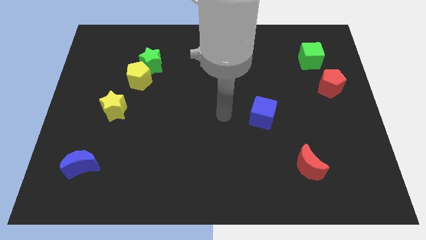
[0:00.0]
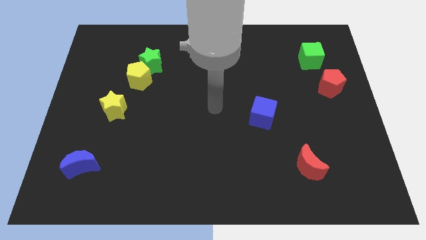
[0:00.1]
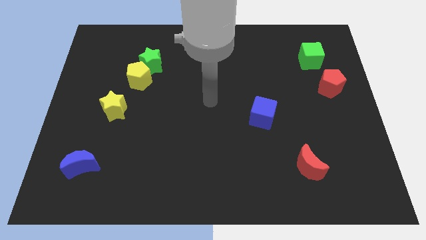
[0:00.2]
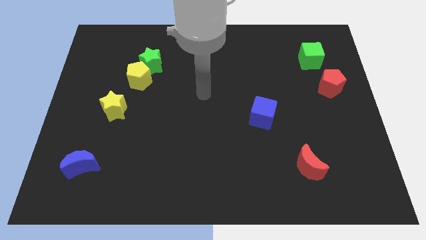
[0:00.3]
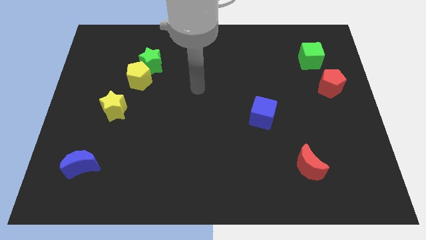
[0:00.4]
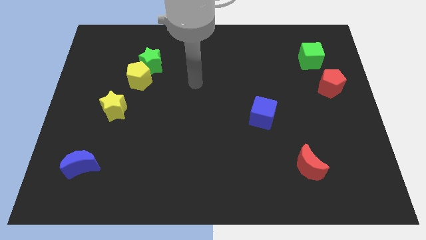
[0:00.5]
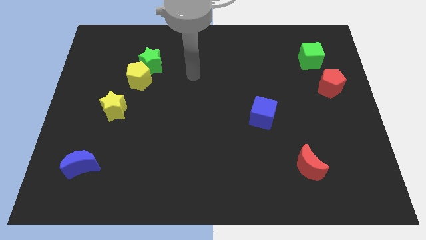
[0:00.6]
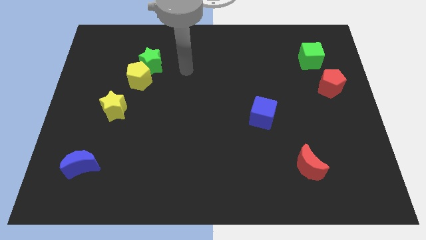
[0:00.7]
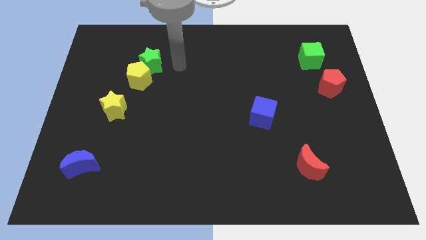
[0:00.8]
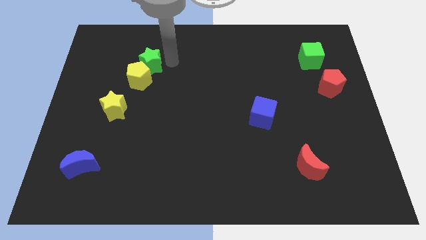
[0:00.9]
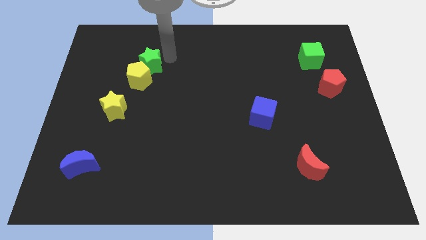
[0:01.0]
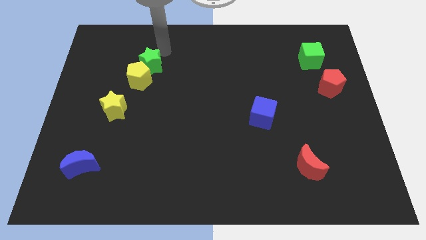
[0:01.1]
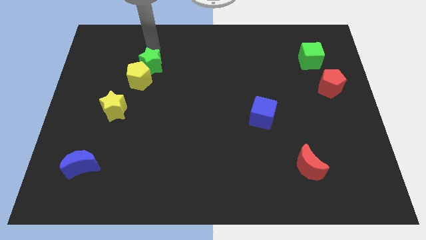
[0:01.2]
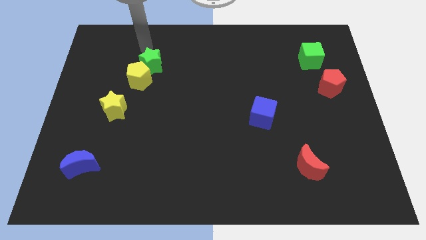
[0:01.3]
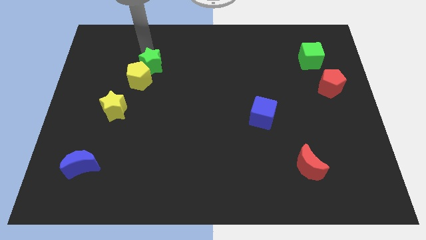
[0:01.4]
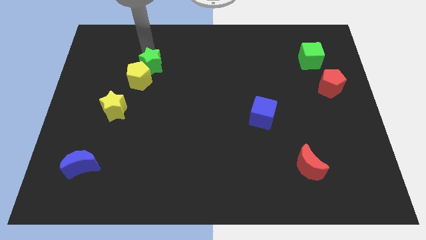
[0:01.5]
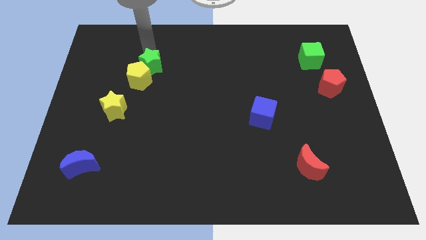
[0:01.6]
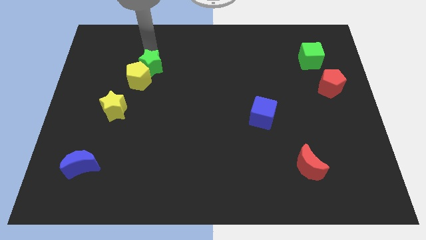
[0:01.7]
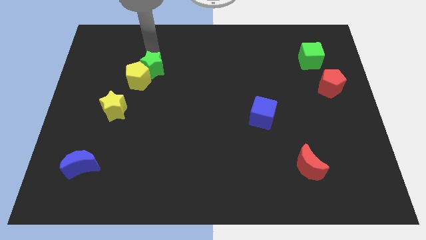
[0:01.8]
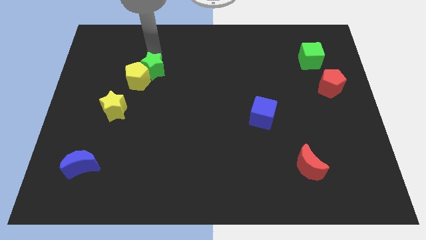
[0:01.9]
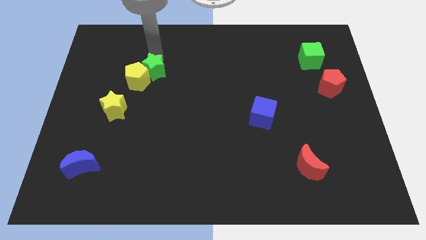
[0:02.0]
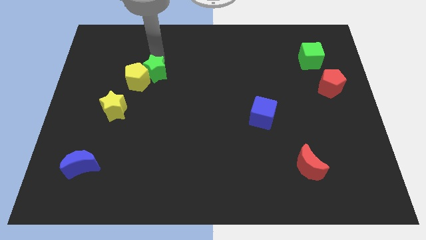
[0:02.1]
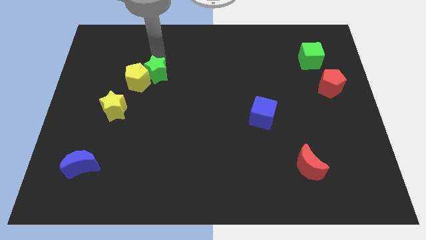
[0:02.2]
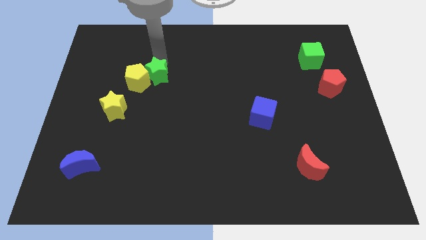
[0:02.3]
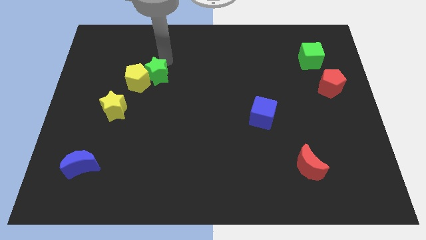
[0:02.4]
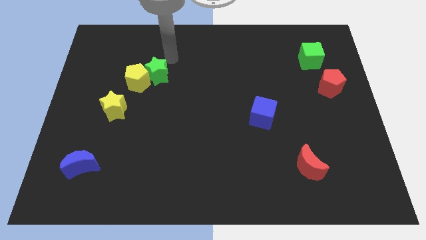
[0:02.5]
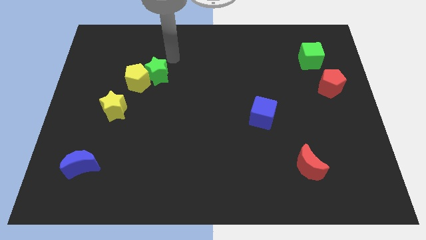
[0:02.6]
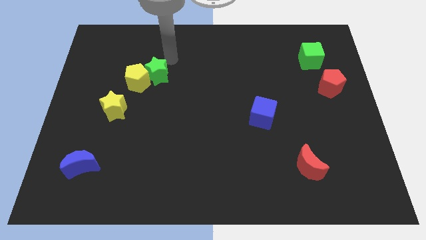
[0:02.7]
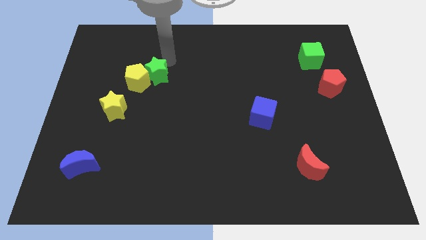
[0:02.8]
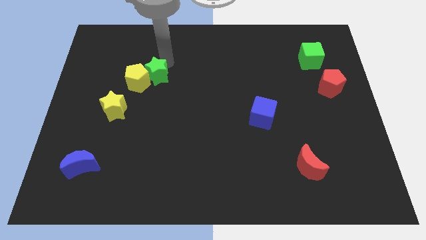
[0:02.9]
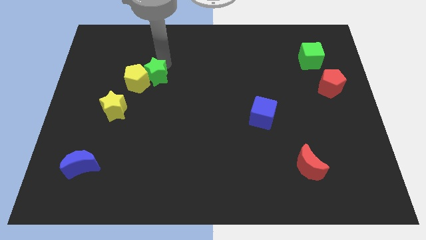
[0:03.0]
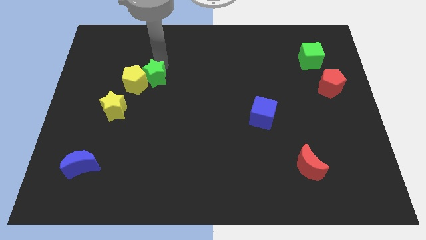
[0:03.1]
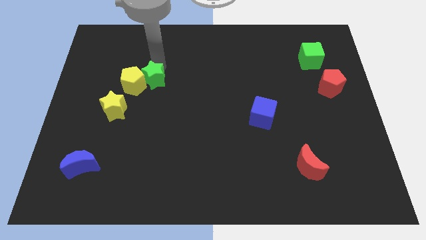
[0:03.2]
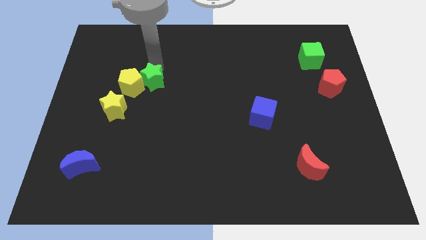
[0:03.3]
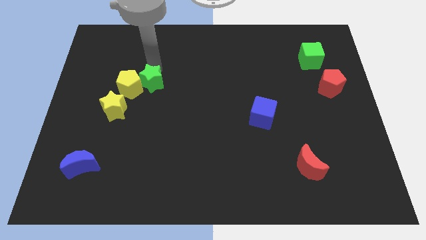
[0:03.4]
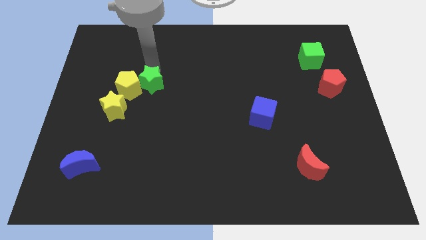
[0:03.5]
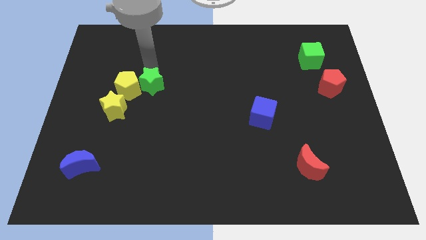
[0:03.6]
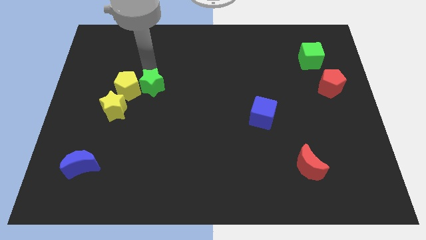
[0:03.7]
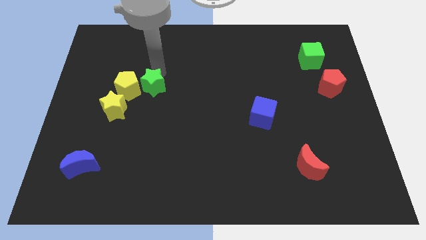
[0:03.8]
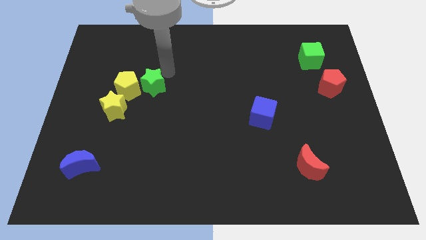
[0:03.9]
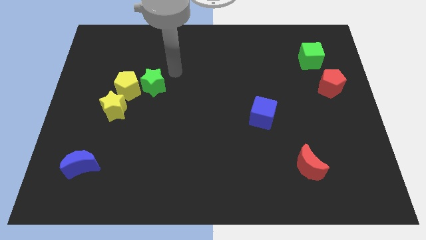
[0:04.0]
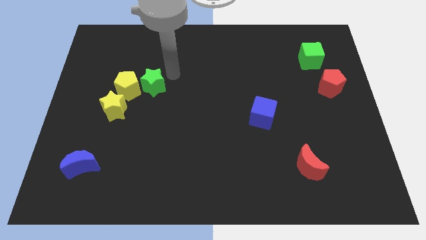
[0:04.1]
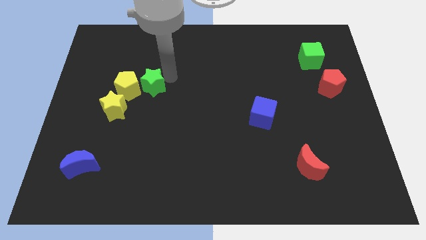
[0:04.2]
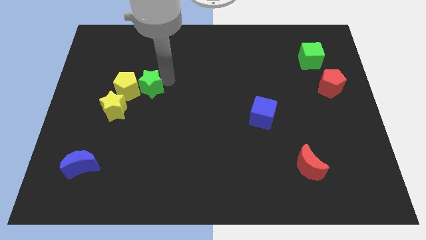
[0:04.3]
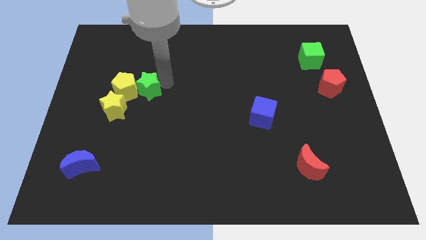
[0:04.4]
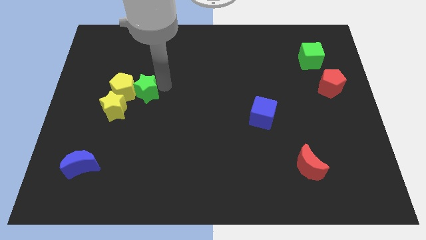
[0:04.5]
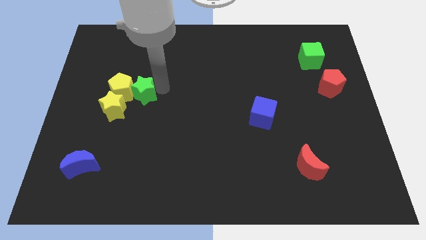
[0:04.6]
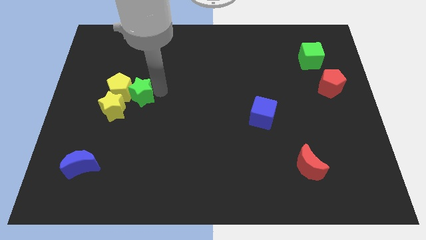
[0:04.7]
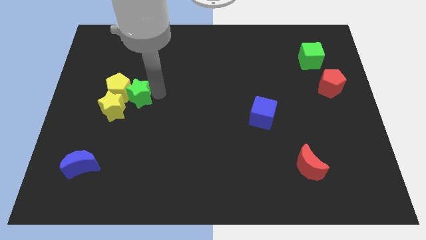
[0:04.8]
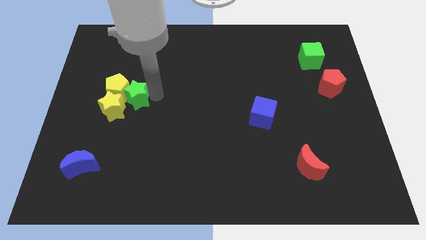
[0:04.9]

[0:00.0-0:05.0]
push the green star close to the yellow star

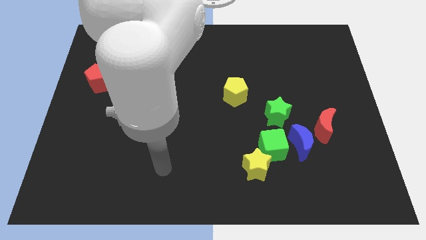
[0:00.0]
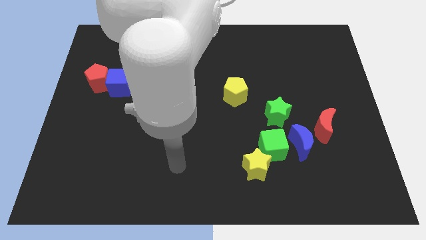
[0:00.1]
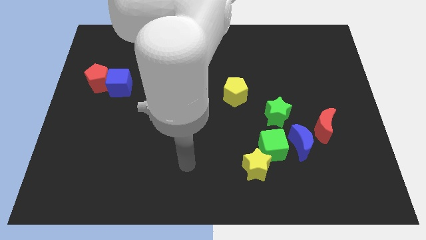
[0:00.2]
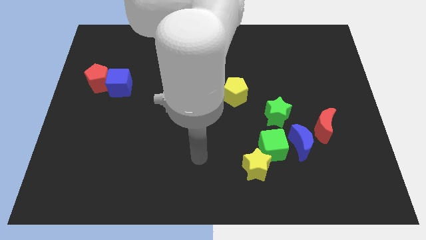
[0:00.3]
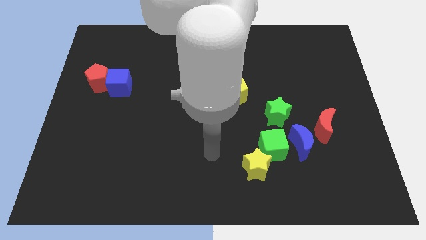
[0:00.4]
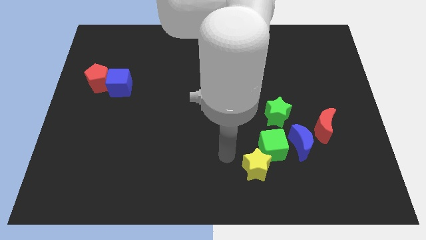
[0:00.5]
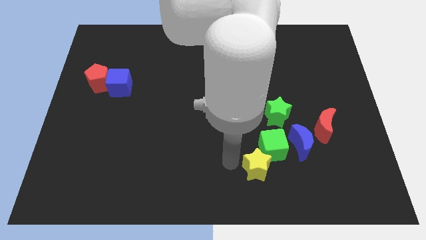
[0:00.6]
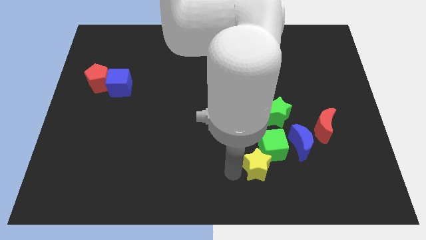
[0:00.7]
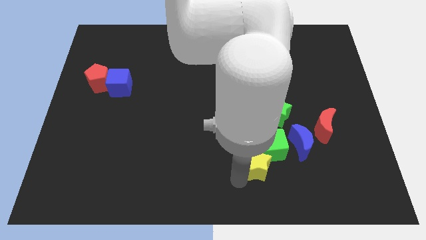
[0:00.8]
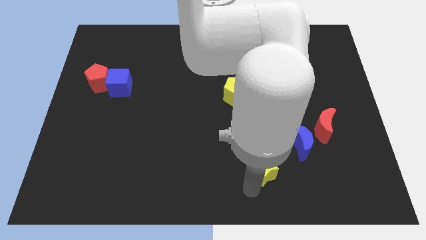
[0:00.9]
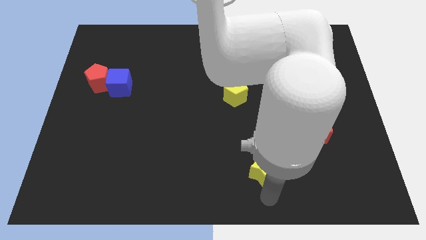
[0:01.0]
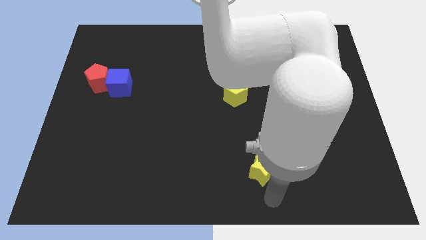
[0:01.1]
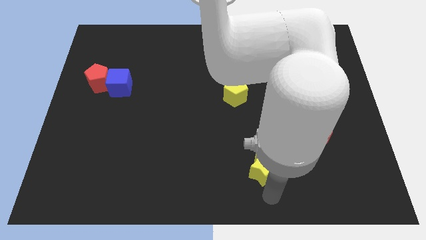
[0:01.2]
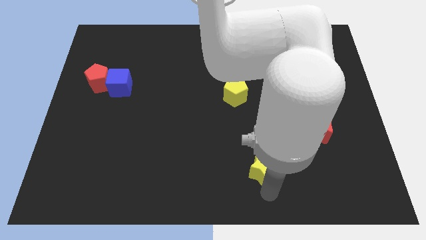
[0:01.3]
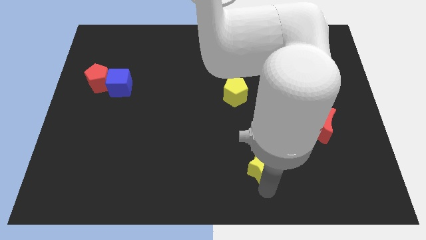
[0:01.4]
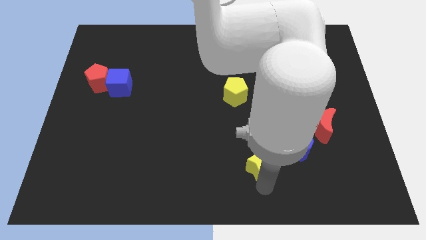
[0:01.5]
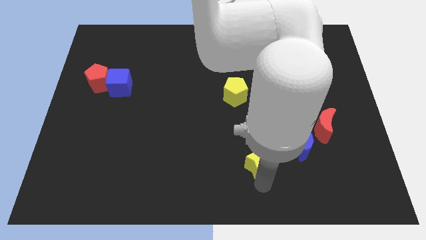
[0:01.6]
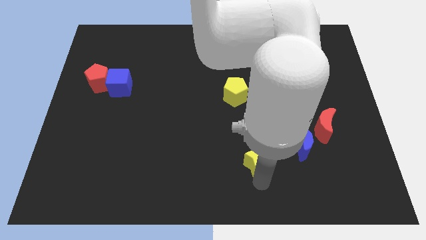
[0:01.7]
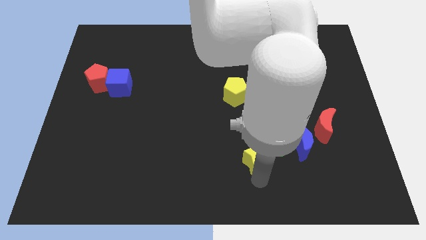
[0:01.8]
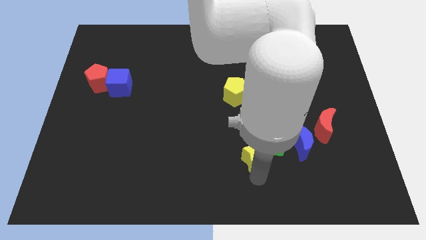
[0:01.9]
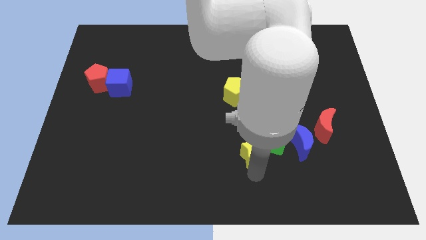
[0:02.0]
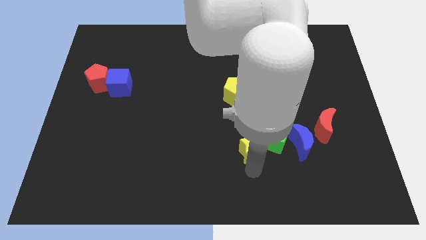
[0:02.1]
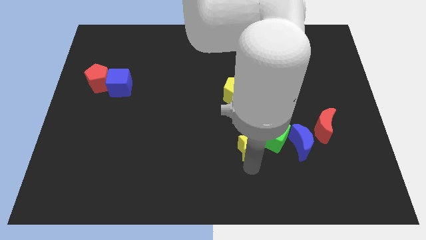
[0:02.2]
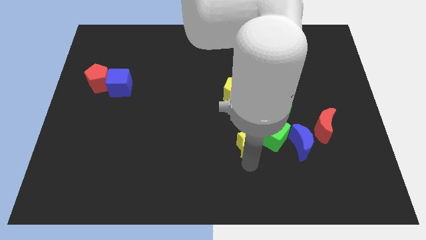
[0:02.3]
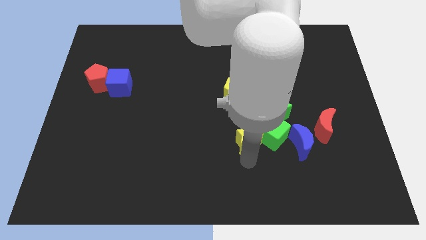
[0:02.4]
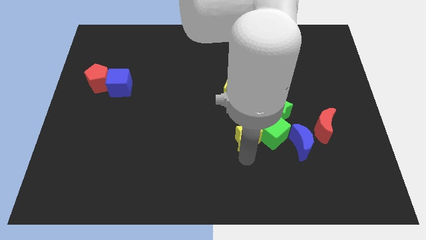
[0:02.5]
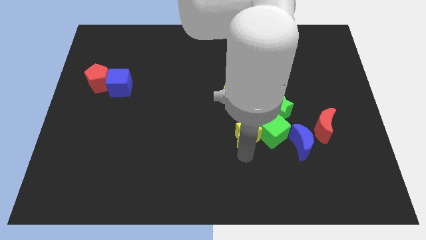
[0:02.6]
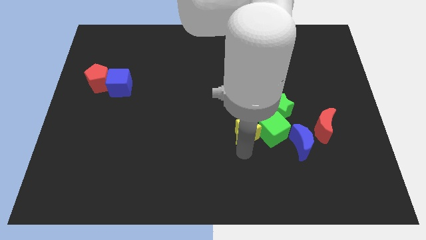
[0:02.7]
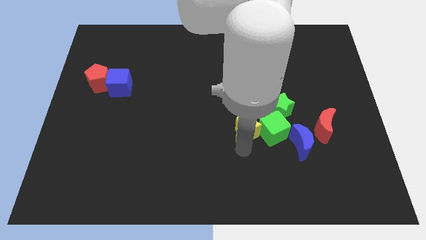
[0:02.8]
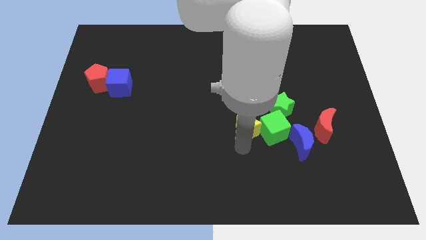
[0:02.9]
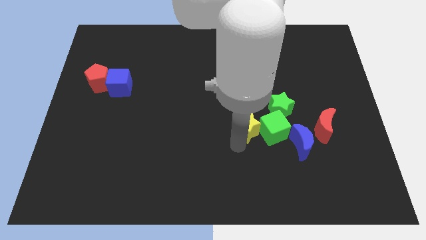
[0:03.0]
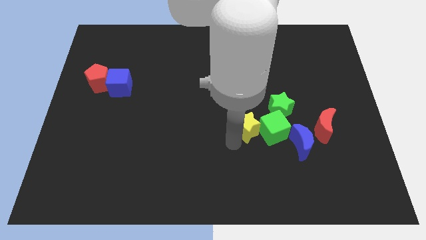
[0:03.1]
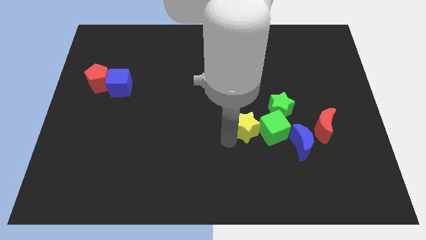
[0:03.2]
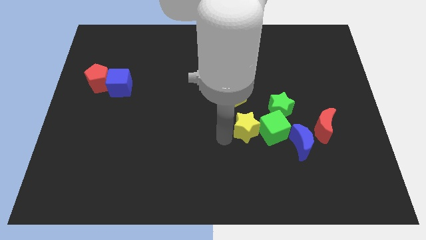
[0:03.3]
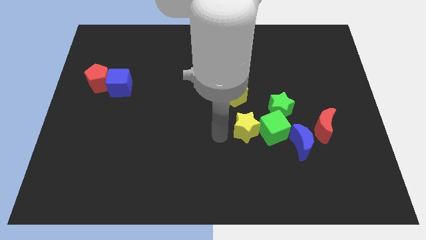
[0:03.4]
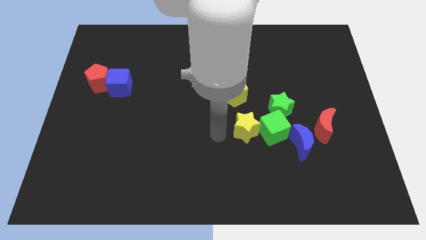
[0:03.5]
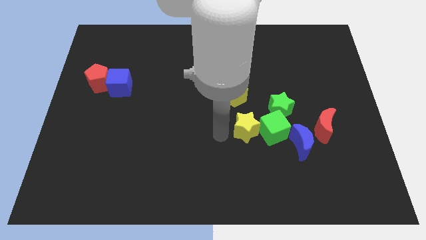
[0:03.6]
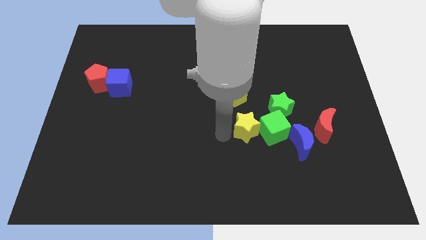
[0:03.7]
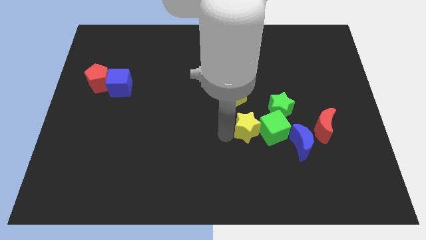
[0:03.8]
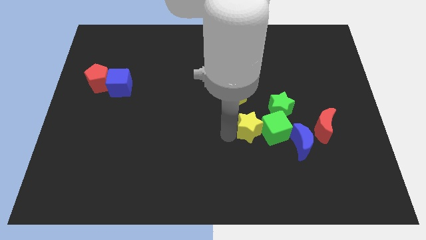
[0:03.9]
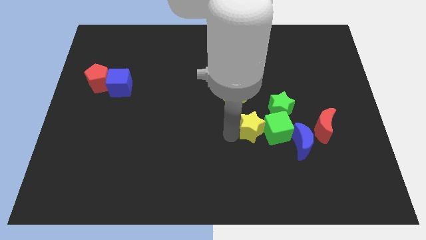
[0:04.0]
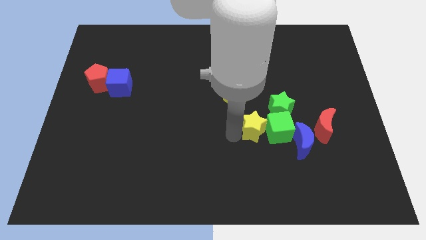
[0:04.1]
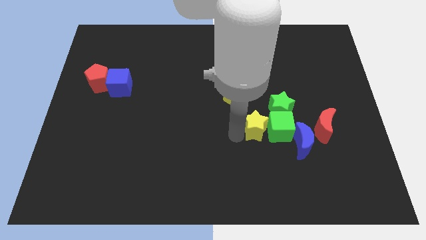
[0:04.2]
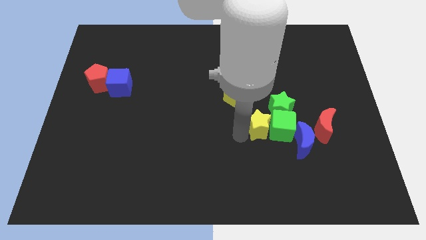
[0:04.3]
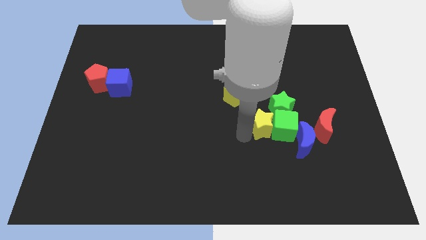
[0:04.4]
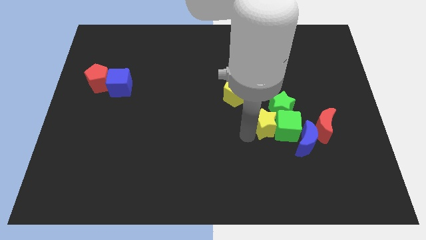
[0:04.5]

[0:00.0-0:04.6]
move the yellow star close to the green star
